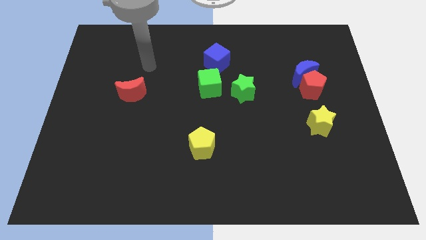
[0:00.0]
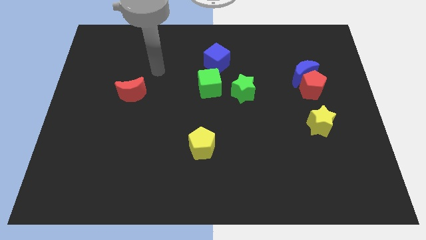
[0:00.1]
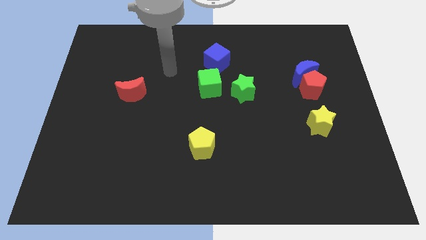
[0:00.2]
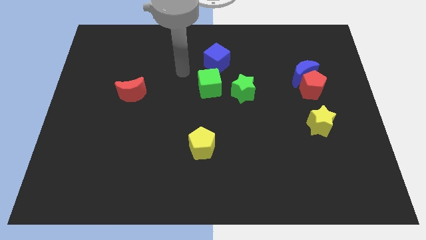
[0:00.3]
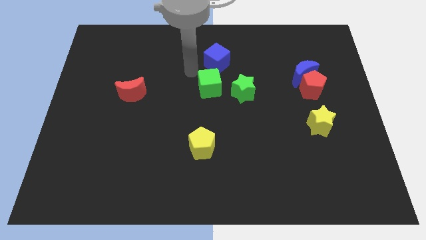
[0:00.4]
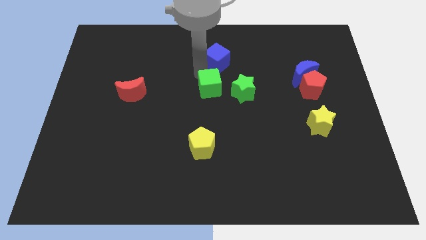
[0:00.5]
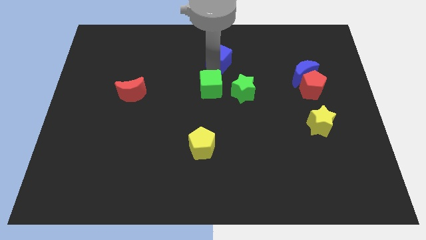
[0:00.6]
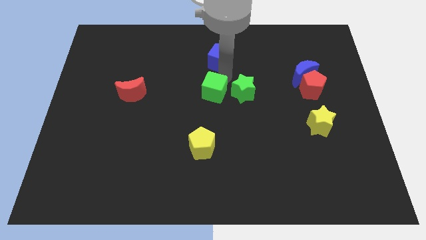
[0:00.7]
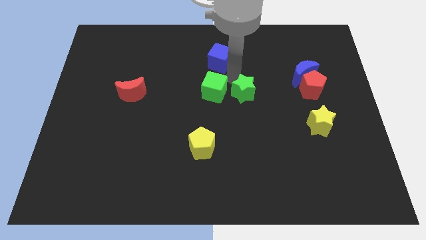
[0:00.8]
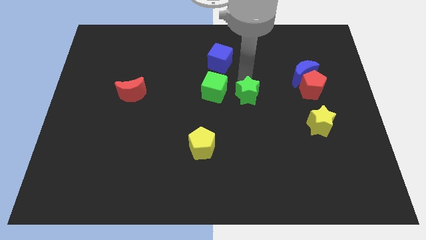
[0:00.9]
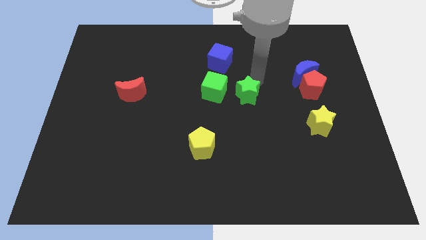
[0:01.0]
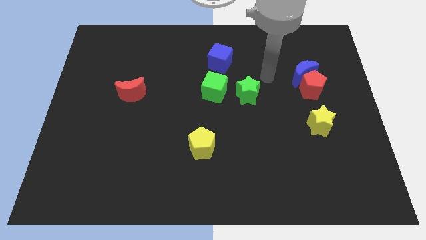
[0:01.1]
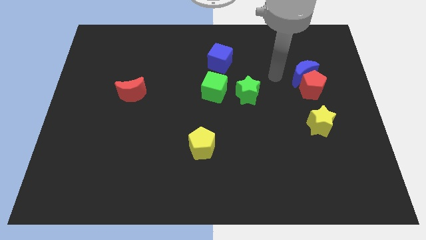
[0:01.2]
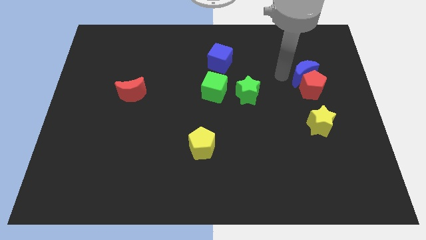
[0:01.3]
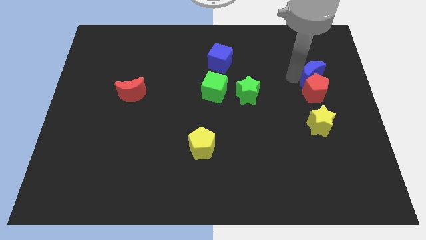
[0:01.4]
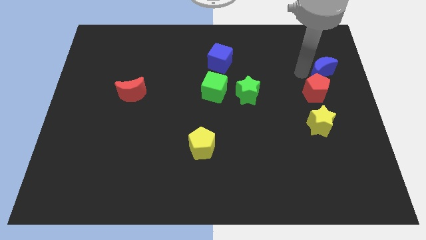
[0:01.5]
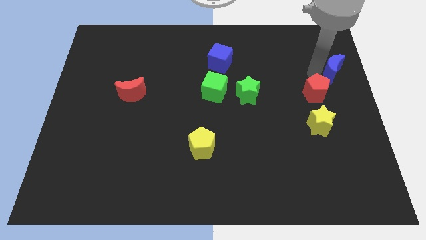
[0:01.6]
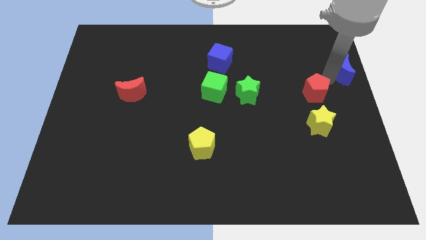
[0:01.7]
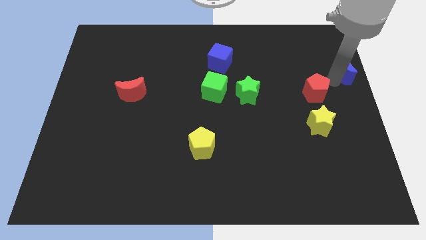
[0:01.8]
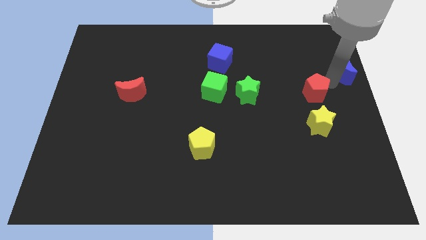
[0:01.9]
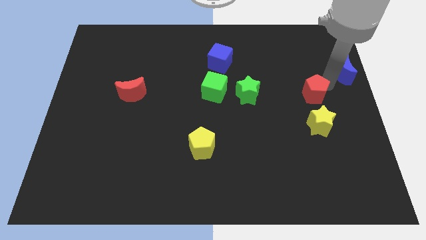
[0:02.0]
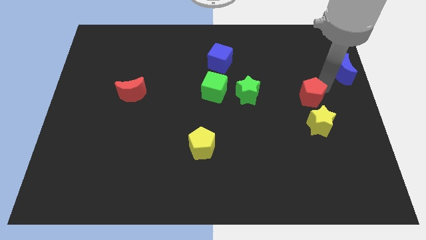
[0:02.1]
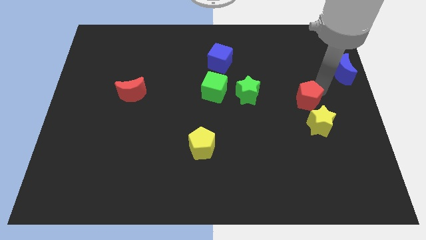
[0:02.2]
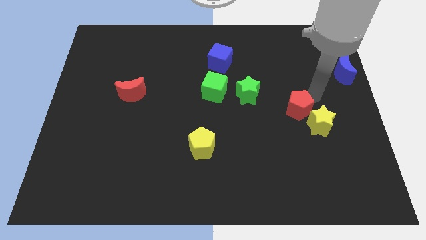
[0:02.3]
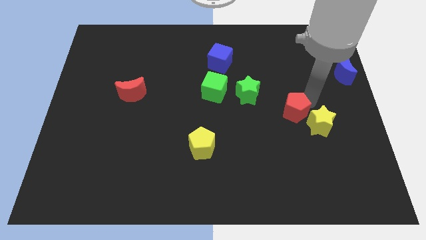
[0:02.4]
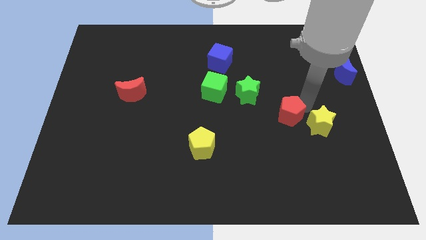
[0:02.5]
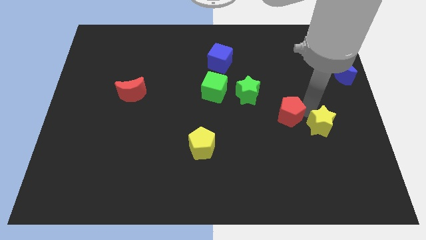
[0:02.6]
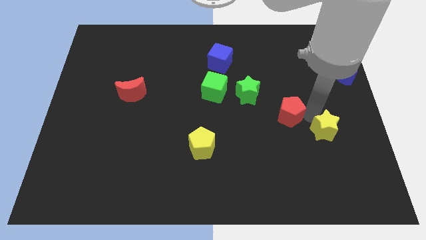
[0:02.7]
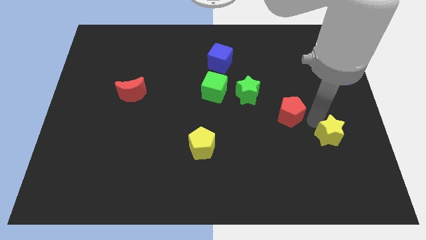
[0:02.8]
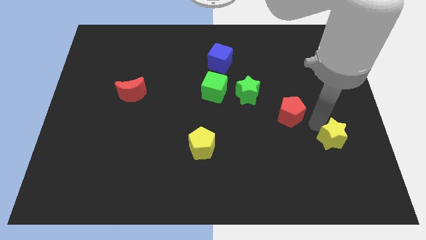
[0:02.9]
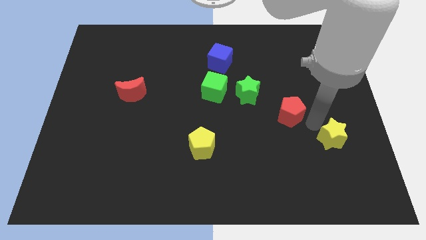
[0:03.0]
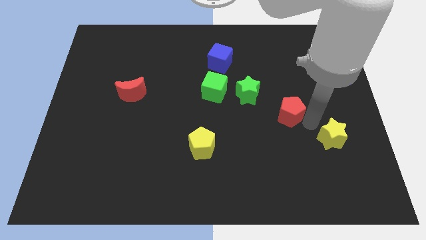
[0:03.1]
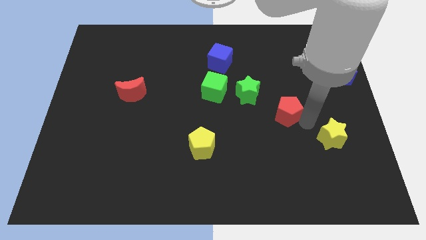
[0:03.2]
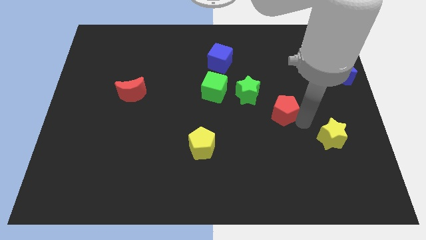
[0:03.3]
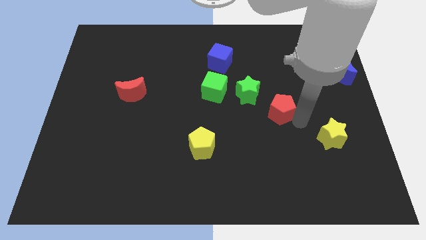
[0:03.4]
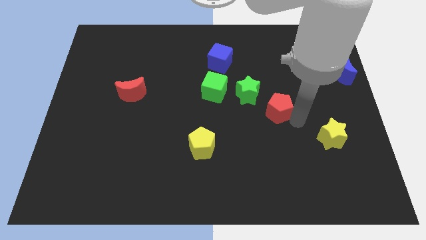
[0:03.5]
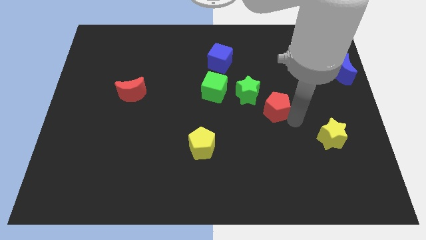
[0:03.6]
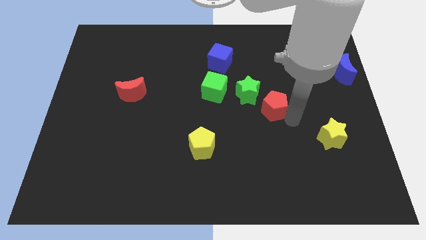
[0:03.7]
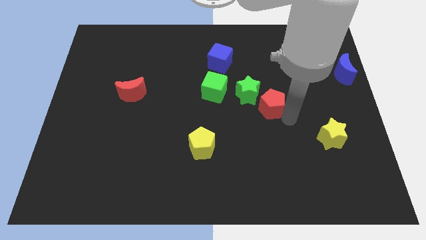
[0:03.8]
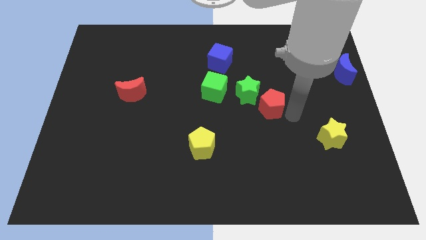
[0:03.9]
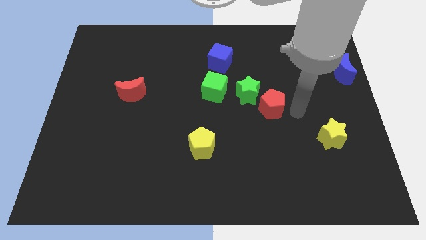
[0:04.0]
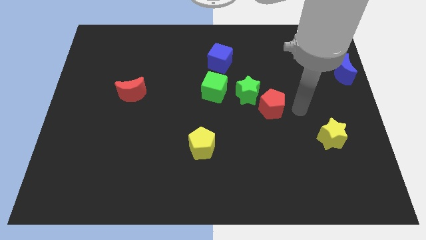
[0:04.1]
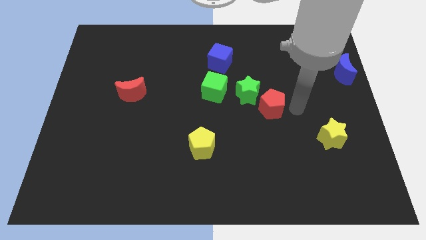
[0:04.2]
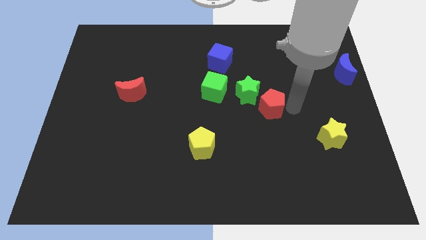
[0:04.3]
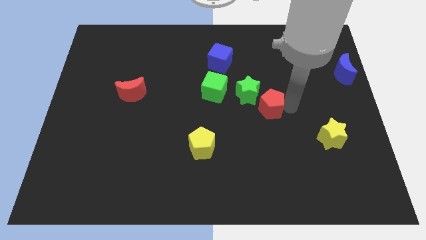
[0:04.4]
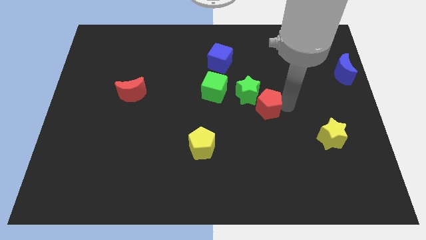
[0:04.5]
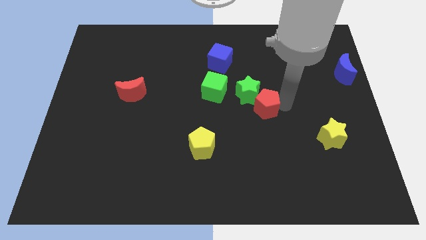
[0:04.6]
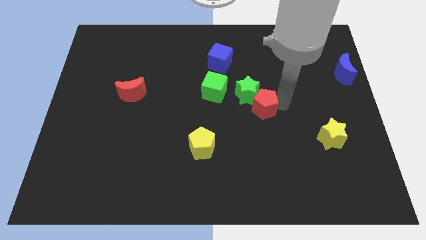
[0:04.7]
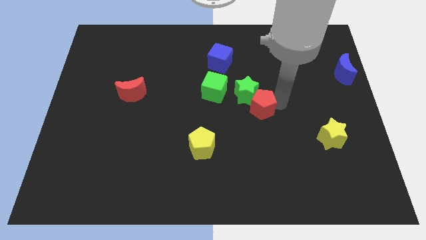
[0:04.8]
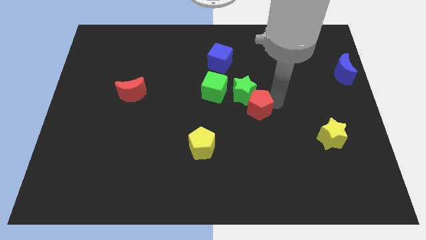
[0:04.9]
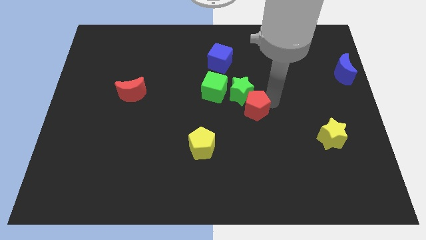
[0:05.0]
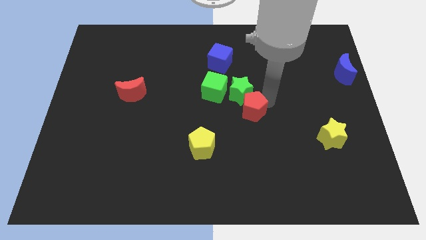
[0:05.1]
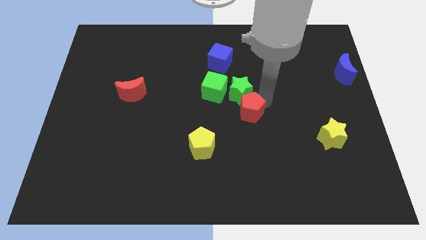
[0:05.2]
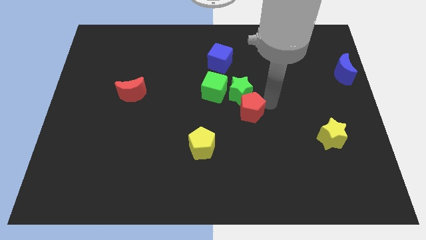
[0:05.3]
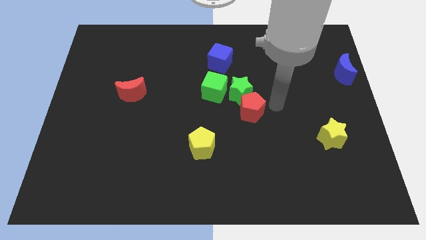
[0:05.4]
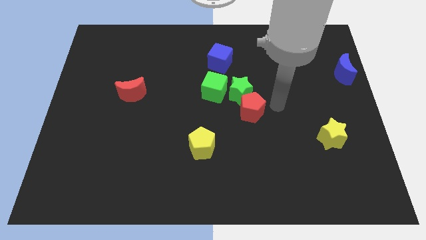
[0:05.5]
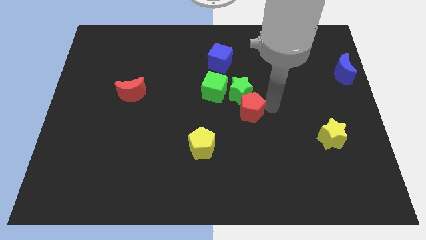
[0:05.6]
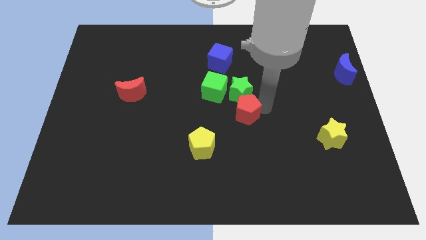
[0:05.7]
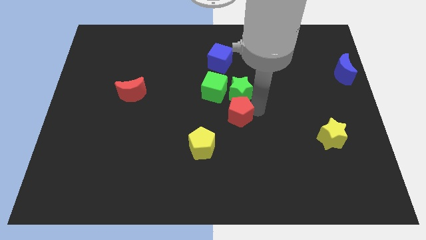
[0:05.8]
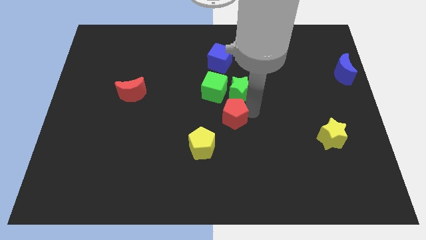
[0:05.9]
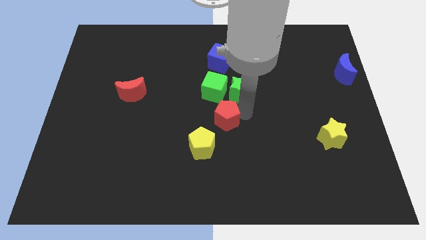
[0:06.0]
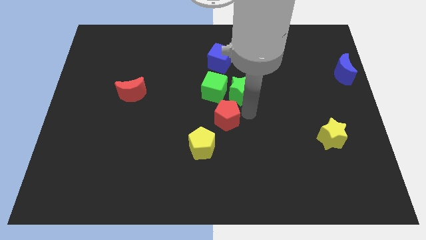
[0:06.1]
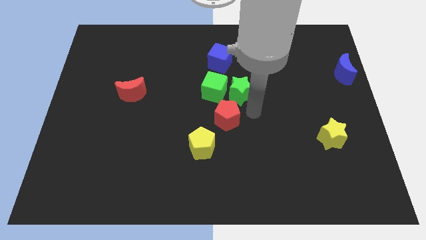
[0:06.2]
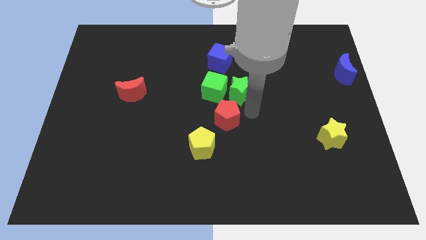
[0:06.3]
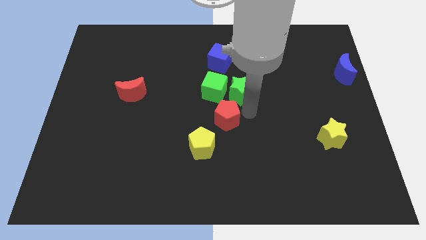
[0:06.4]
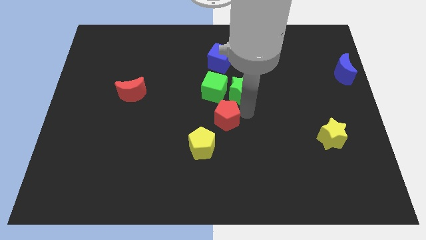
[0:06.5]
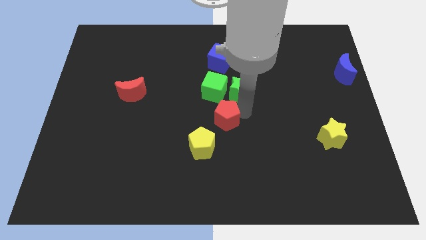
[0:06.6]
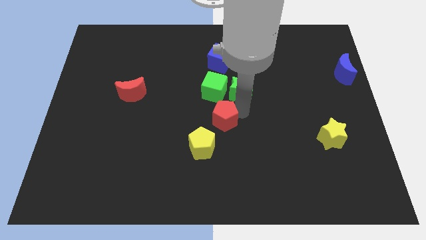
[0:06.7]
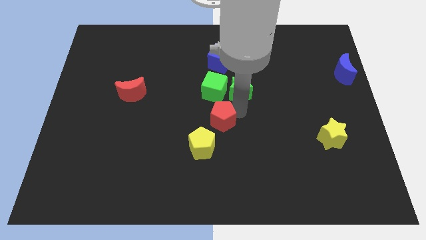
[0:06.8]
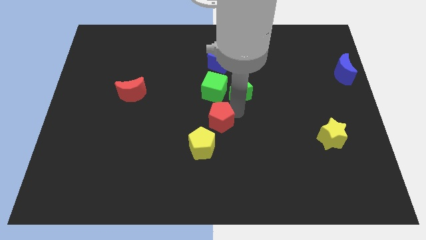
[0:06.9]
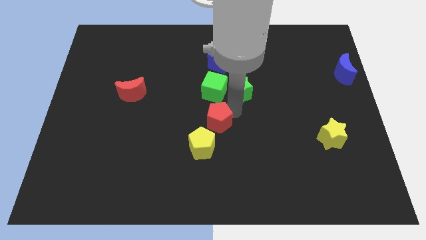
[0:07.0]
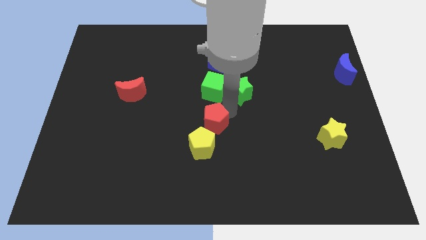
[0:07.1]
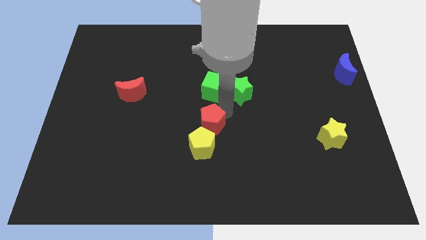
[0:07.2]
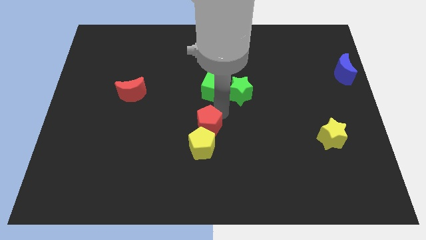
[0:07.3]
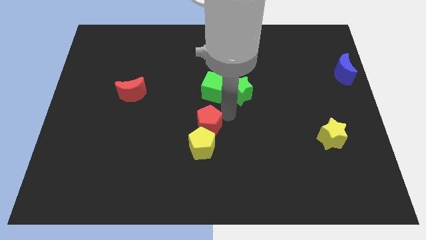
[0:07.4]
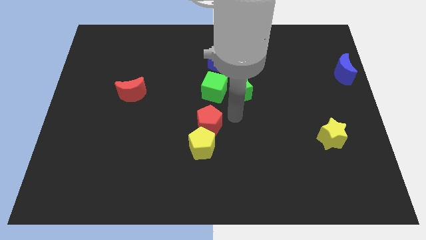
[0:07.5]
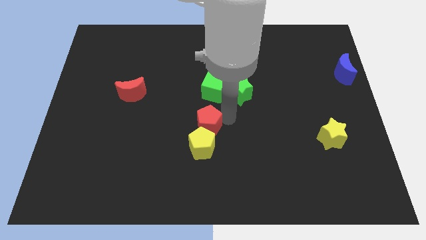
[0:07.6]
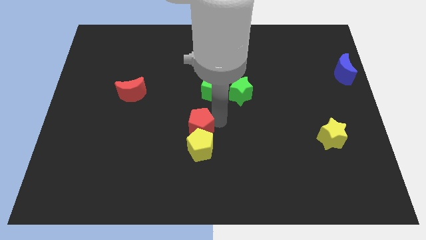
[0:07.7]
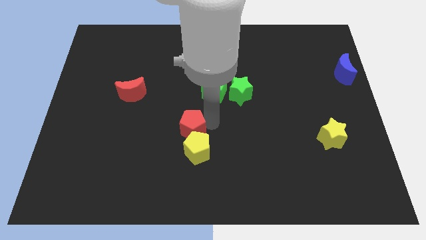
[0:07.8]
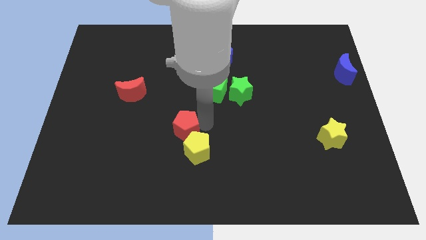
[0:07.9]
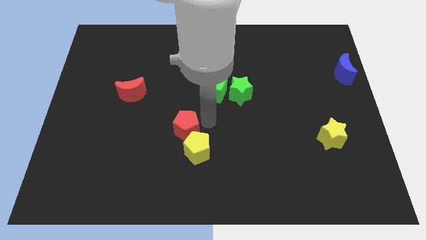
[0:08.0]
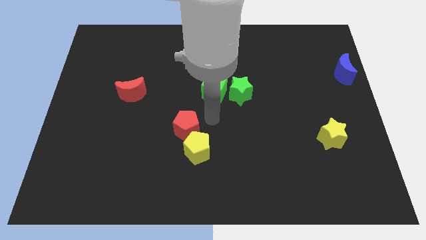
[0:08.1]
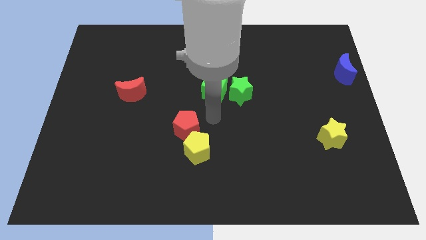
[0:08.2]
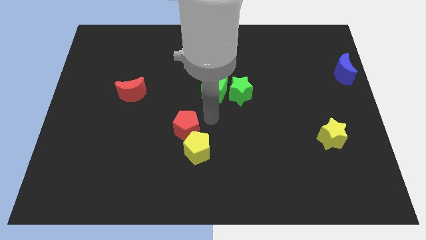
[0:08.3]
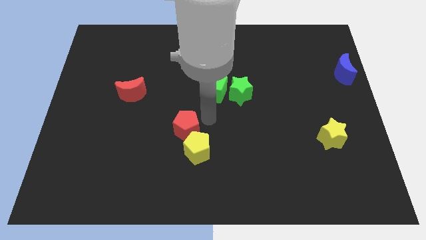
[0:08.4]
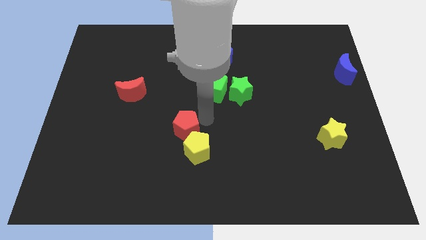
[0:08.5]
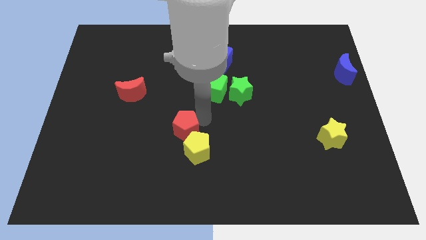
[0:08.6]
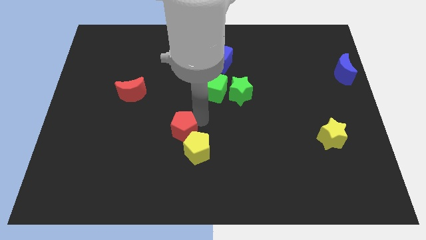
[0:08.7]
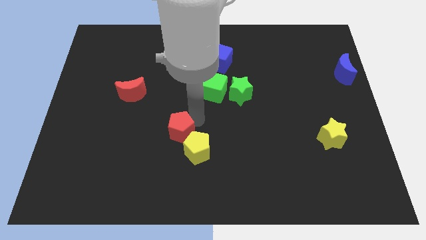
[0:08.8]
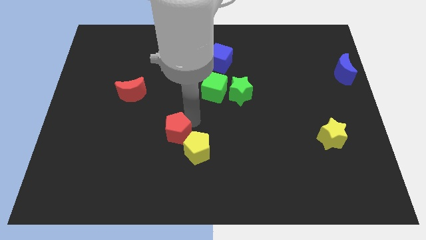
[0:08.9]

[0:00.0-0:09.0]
put the red pentagon left of the yellow pentagon
